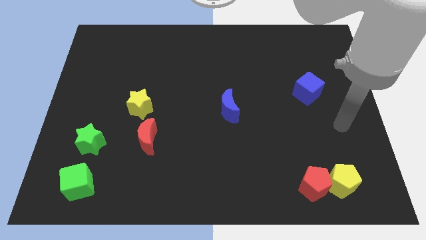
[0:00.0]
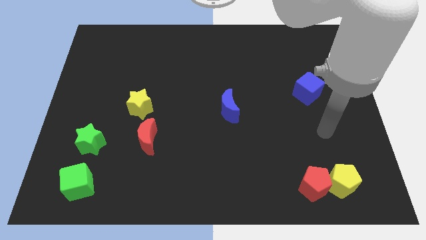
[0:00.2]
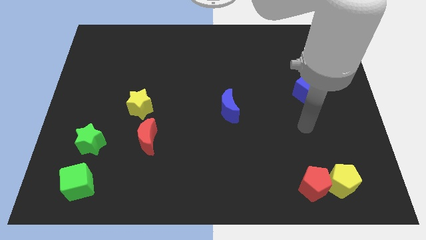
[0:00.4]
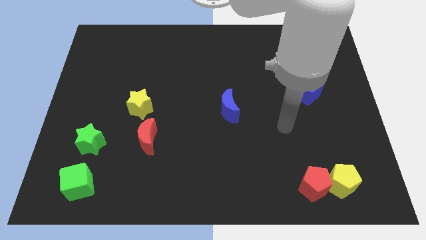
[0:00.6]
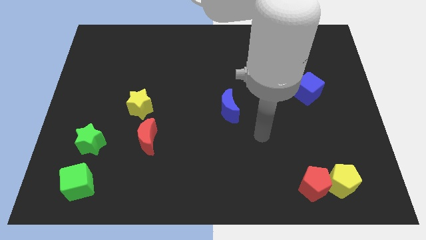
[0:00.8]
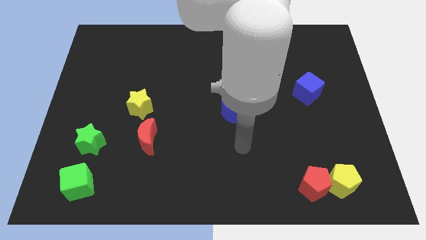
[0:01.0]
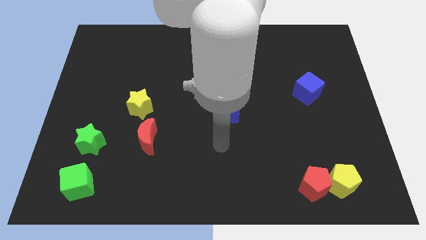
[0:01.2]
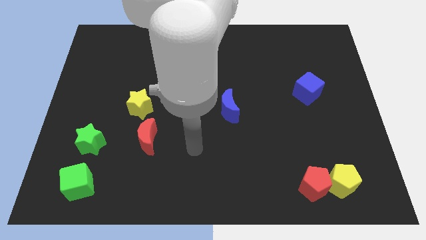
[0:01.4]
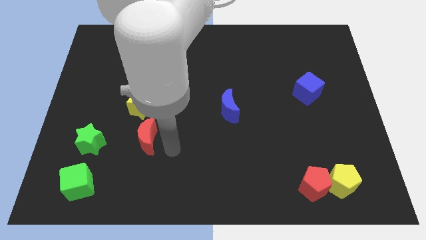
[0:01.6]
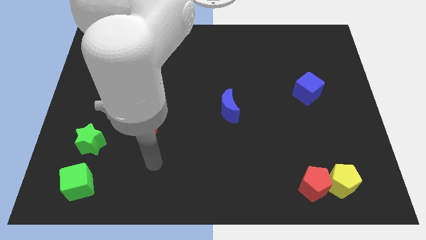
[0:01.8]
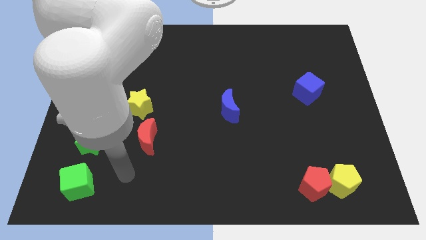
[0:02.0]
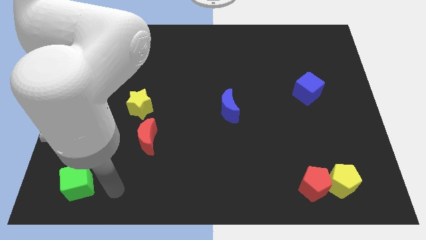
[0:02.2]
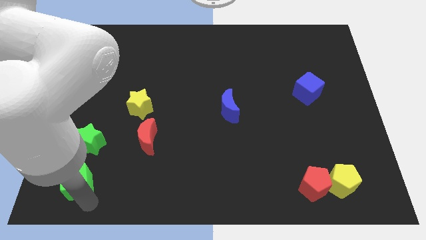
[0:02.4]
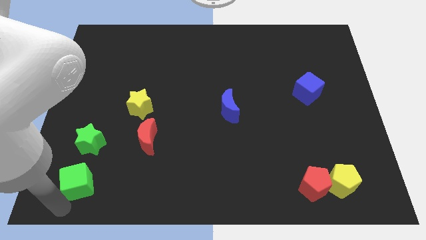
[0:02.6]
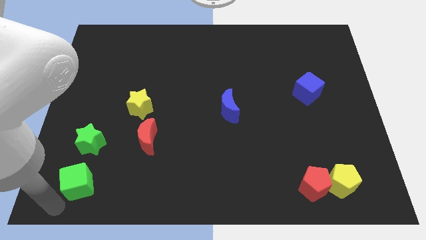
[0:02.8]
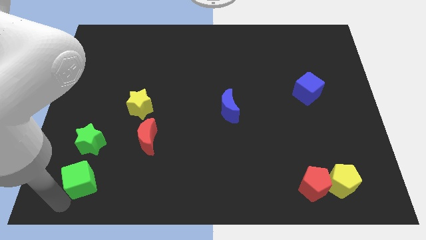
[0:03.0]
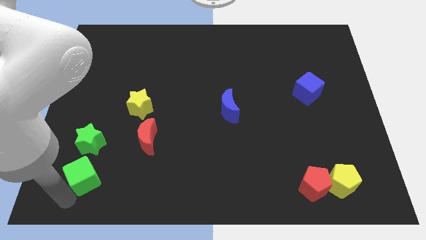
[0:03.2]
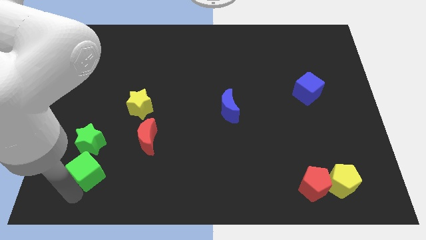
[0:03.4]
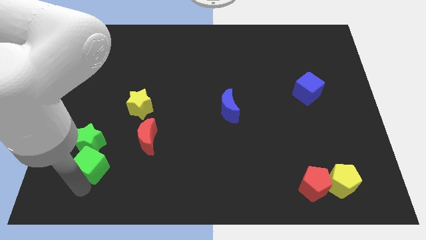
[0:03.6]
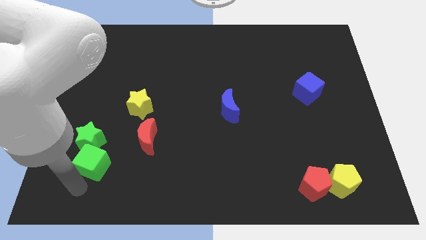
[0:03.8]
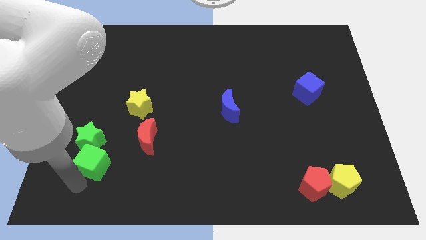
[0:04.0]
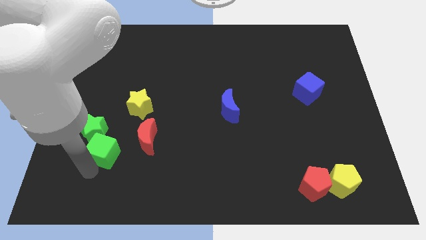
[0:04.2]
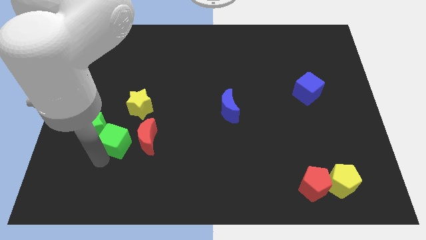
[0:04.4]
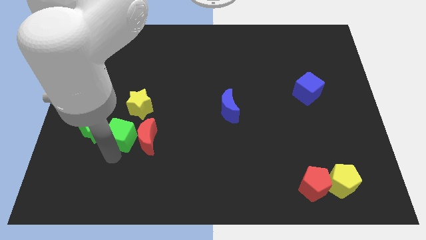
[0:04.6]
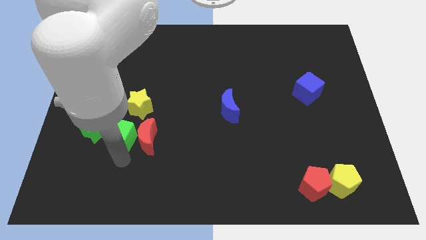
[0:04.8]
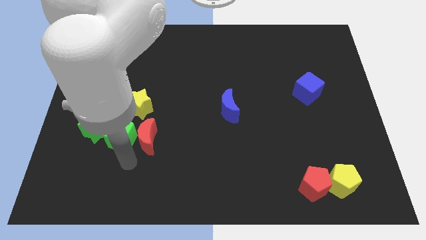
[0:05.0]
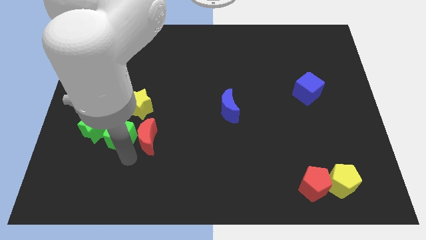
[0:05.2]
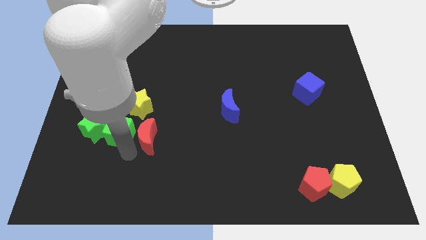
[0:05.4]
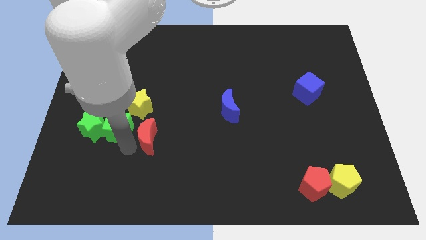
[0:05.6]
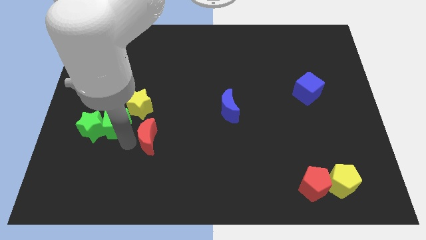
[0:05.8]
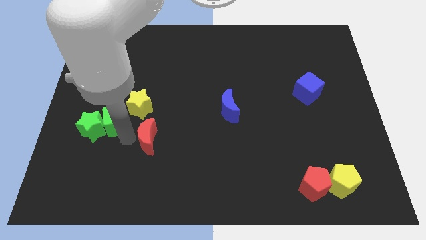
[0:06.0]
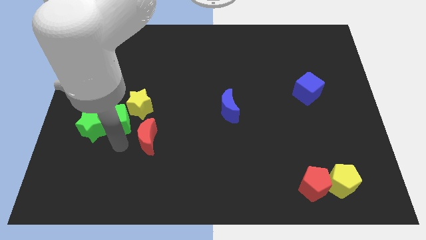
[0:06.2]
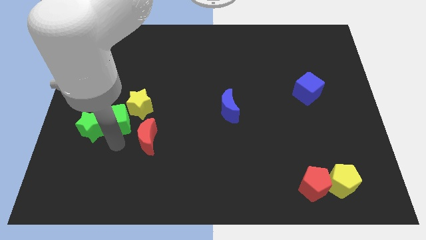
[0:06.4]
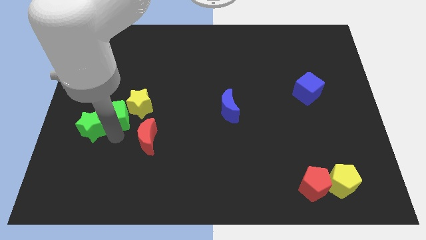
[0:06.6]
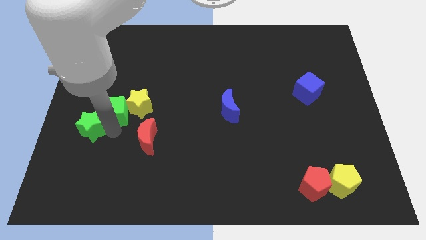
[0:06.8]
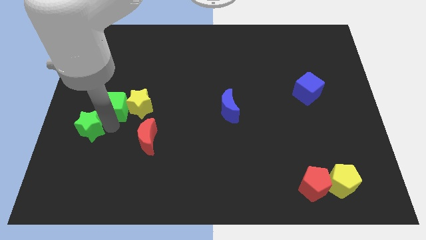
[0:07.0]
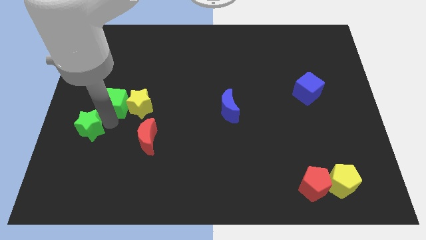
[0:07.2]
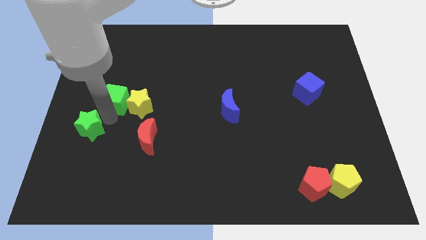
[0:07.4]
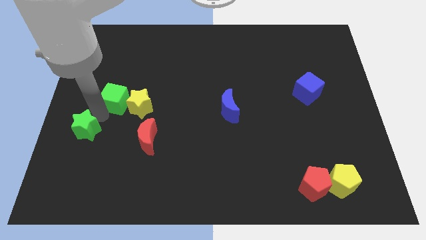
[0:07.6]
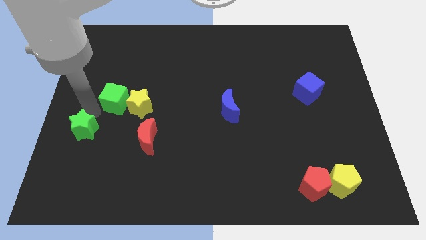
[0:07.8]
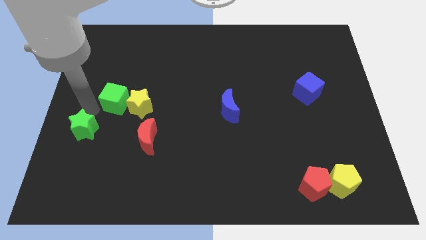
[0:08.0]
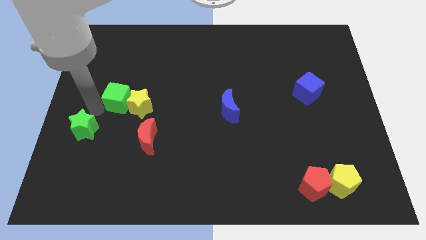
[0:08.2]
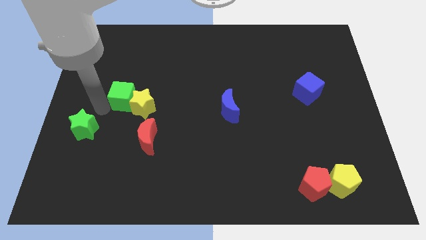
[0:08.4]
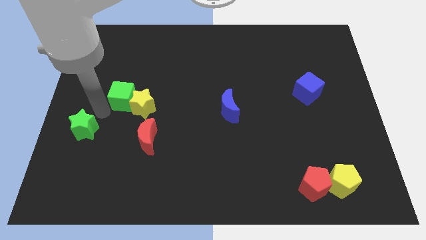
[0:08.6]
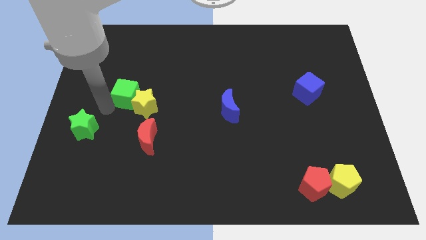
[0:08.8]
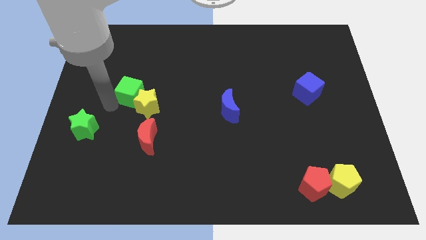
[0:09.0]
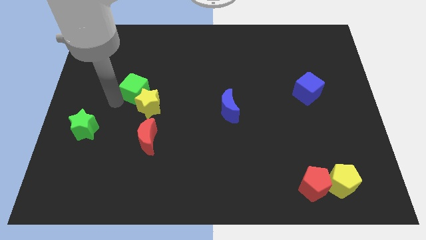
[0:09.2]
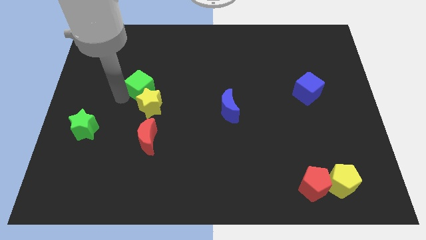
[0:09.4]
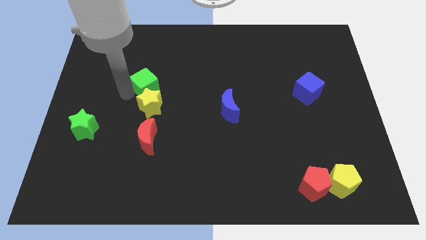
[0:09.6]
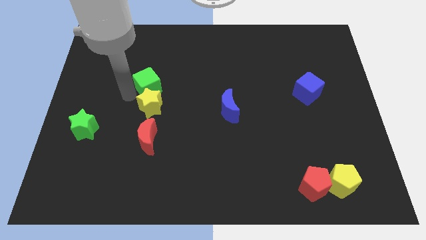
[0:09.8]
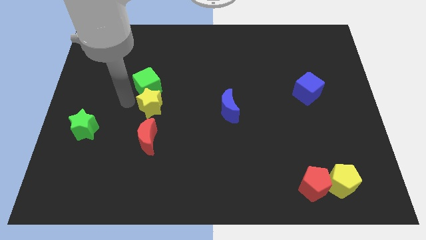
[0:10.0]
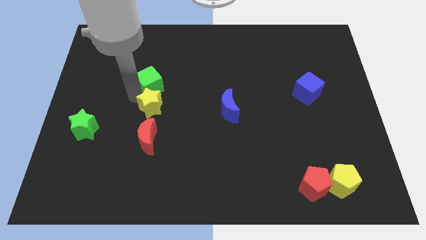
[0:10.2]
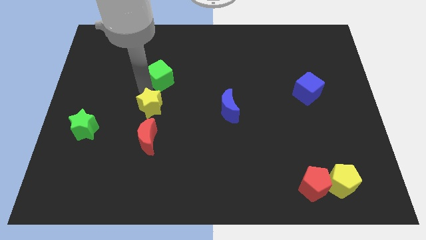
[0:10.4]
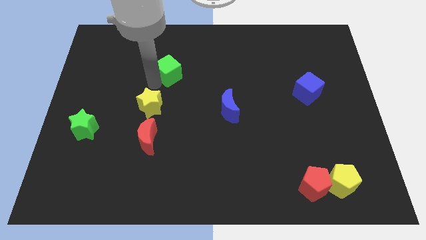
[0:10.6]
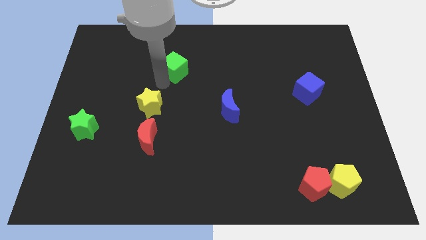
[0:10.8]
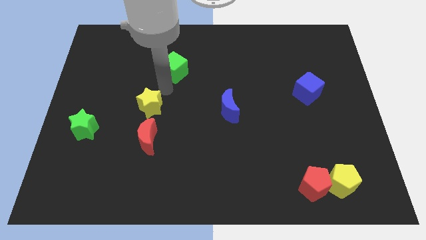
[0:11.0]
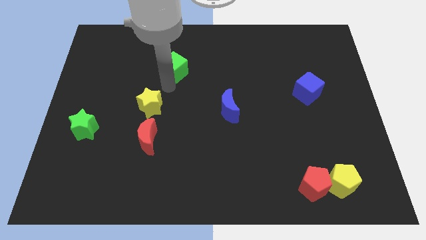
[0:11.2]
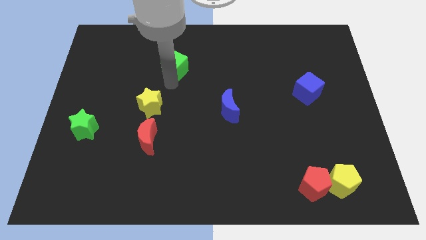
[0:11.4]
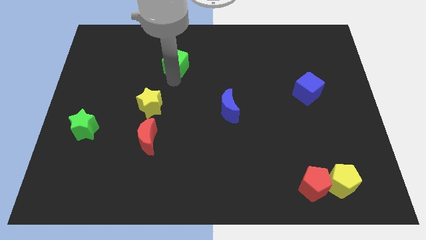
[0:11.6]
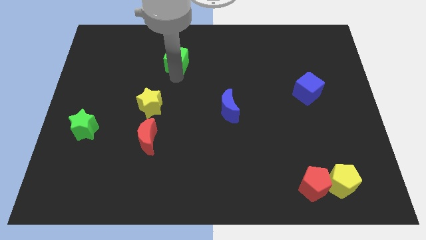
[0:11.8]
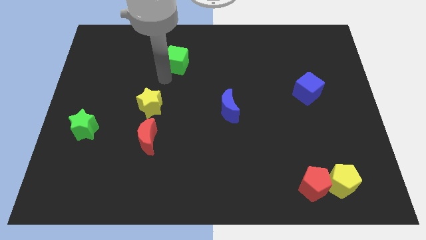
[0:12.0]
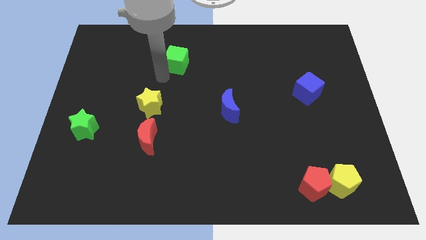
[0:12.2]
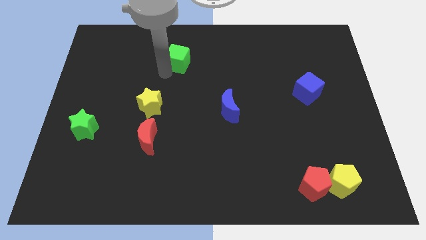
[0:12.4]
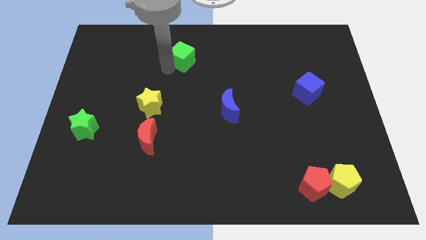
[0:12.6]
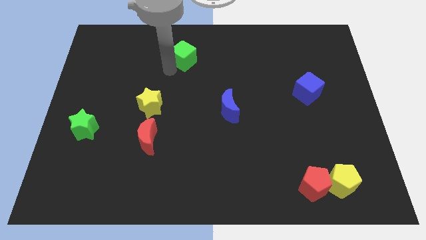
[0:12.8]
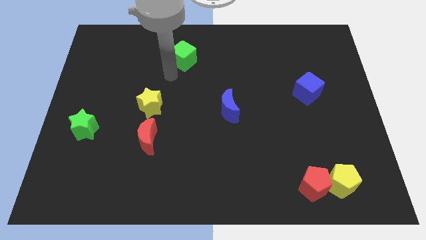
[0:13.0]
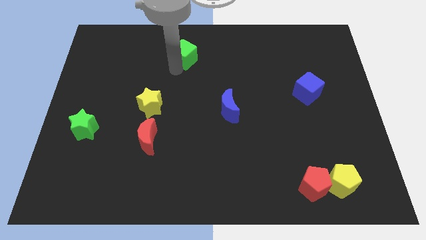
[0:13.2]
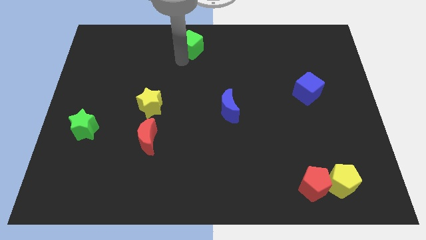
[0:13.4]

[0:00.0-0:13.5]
move the green cube to the top side
